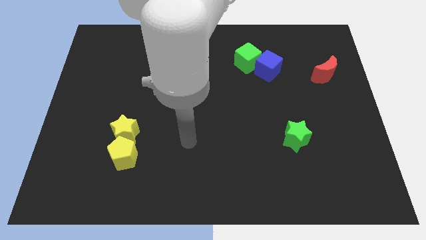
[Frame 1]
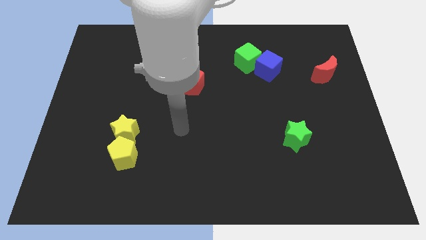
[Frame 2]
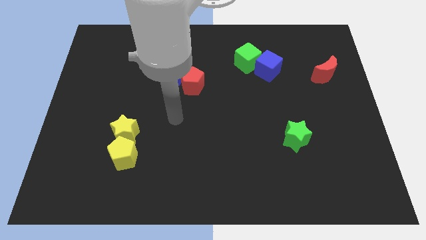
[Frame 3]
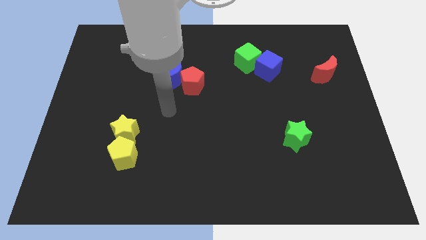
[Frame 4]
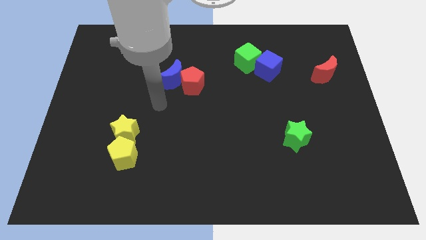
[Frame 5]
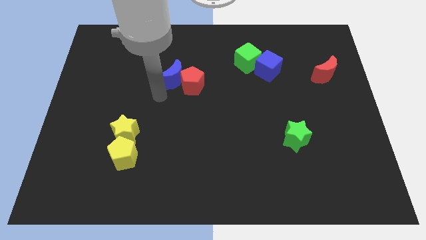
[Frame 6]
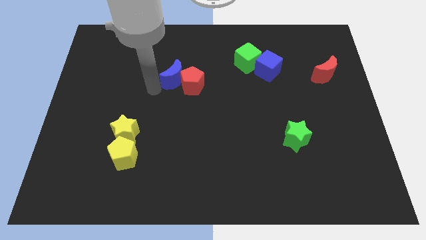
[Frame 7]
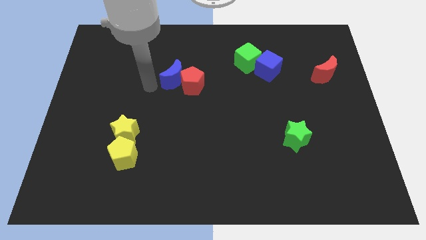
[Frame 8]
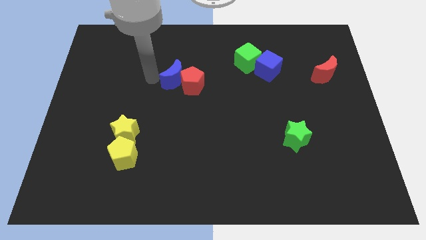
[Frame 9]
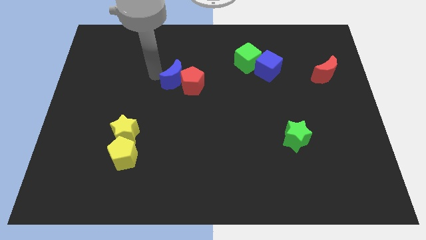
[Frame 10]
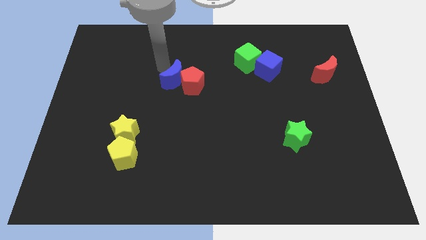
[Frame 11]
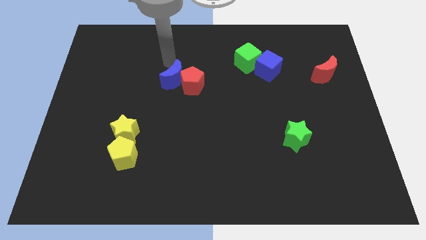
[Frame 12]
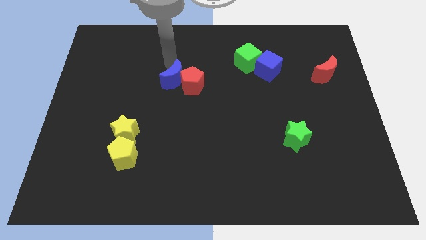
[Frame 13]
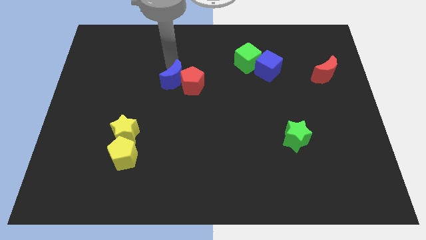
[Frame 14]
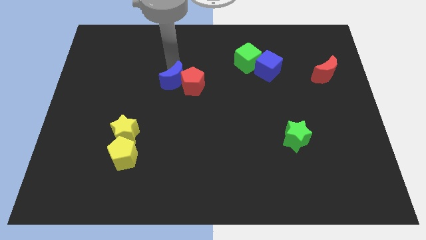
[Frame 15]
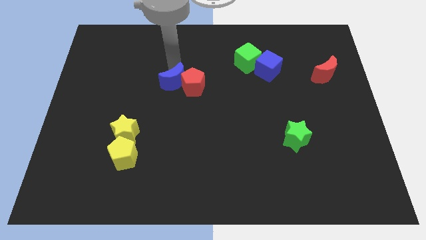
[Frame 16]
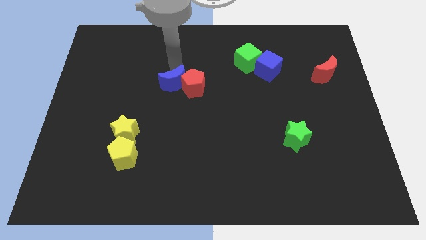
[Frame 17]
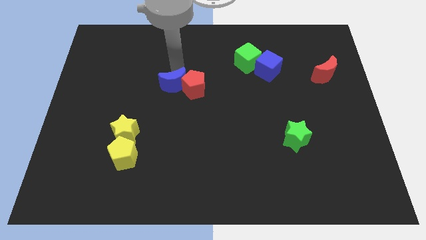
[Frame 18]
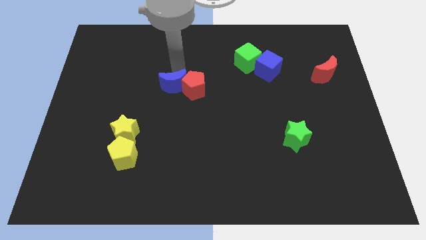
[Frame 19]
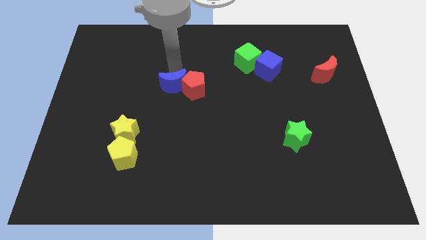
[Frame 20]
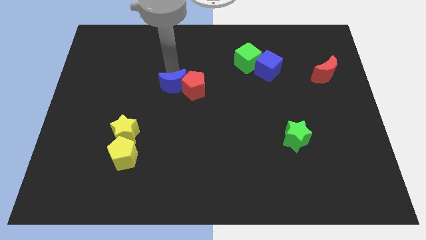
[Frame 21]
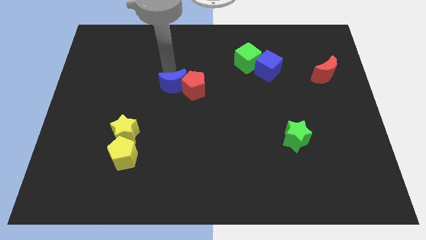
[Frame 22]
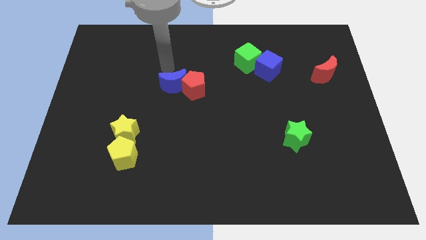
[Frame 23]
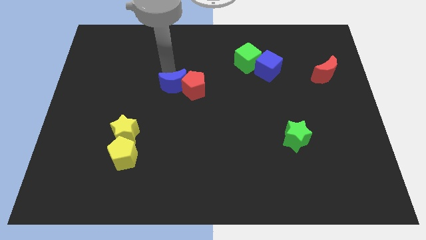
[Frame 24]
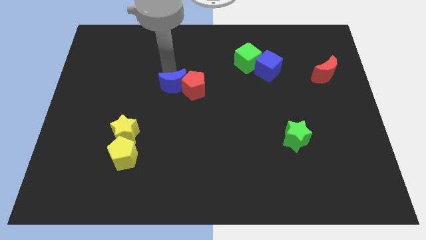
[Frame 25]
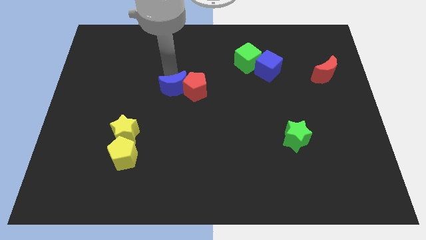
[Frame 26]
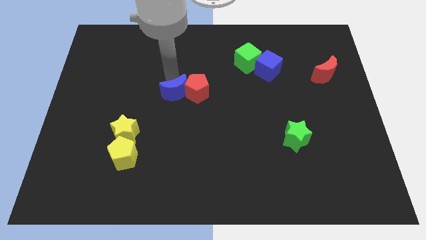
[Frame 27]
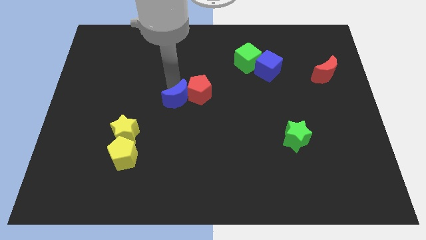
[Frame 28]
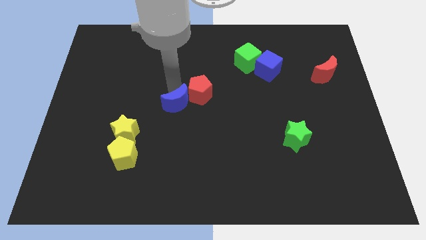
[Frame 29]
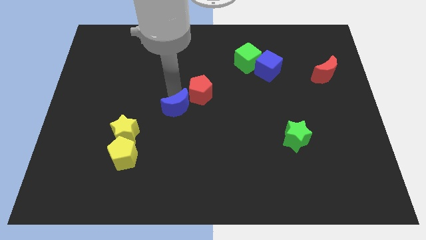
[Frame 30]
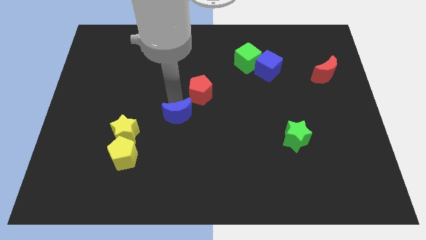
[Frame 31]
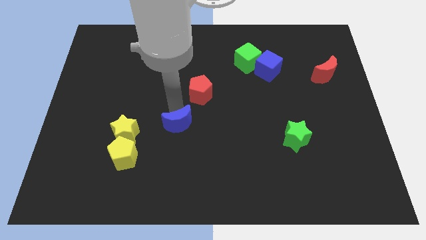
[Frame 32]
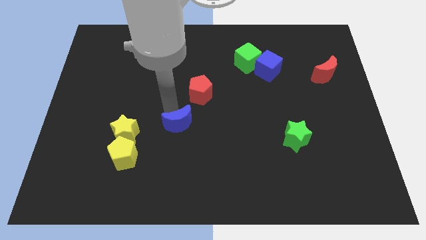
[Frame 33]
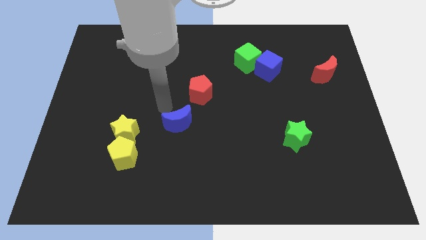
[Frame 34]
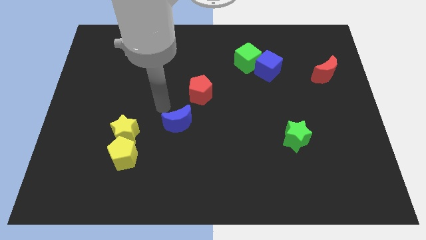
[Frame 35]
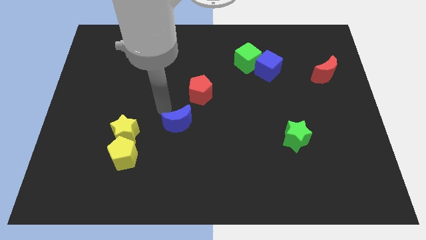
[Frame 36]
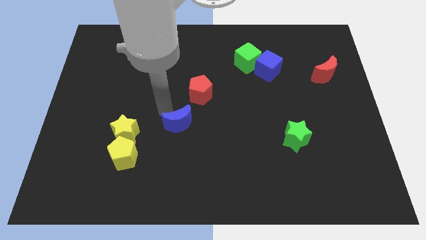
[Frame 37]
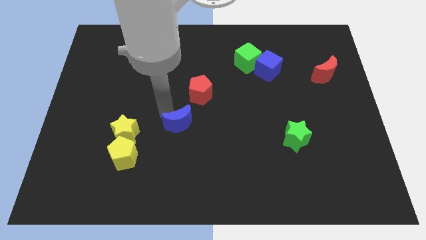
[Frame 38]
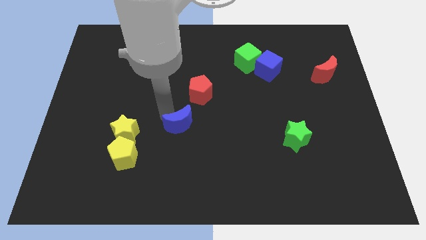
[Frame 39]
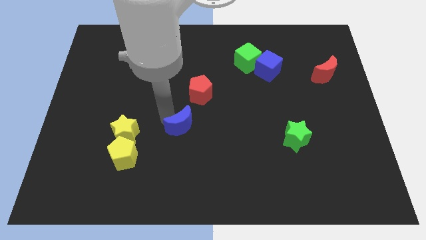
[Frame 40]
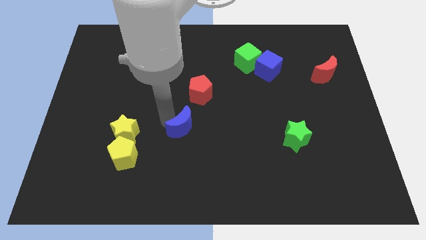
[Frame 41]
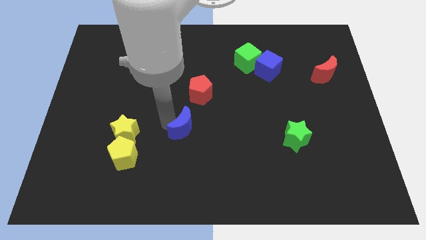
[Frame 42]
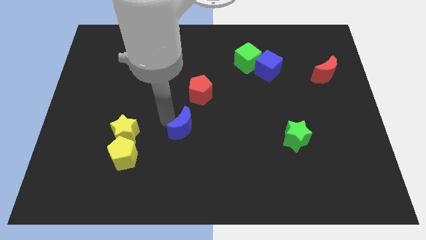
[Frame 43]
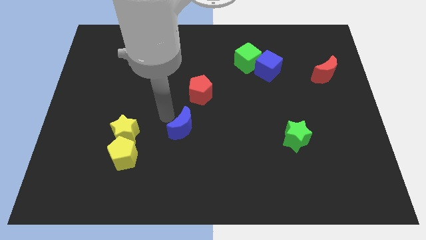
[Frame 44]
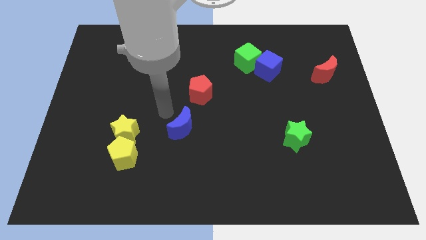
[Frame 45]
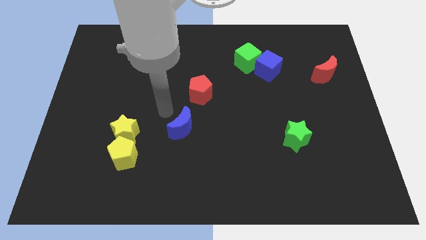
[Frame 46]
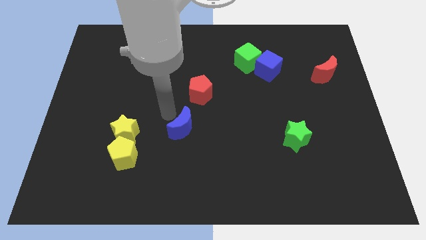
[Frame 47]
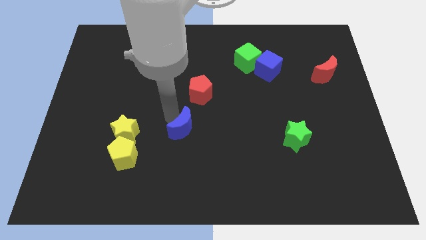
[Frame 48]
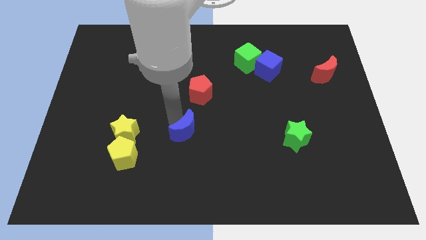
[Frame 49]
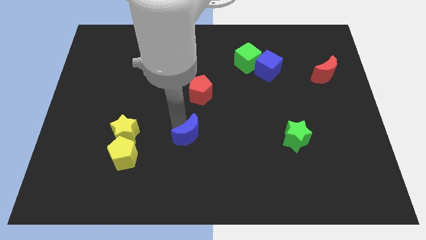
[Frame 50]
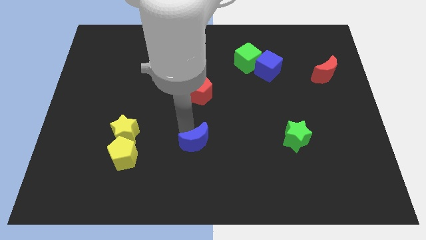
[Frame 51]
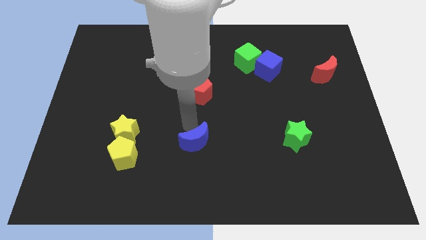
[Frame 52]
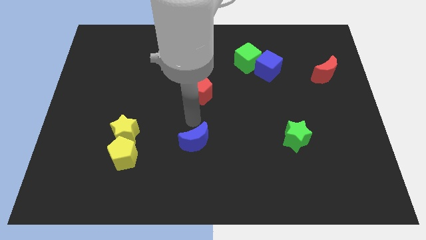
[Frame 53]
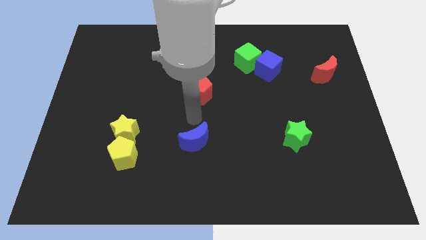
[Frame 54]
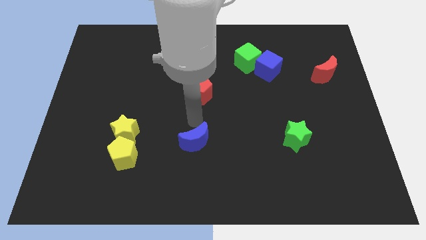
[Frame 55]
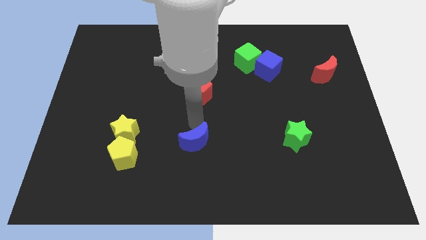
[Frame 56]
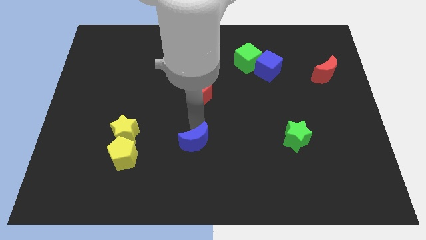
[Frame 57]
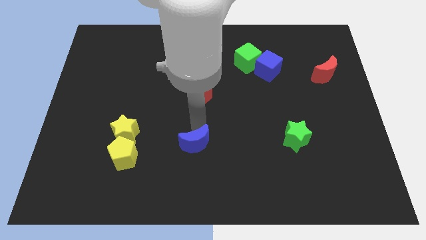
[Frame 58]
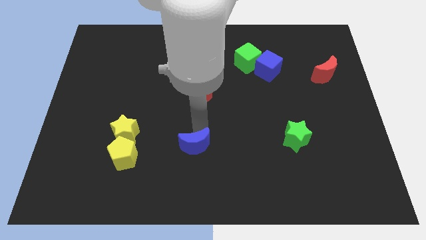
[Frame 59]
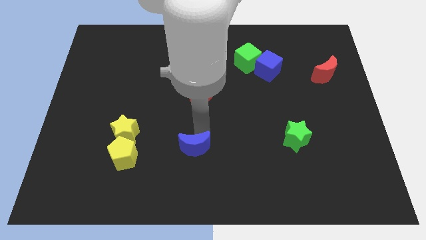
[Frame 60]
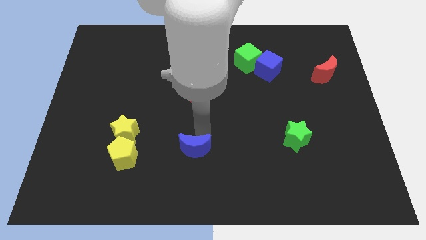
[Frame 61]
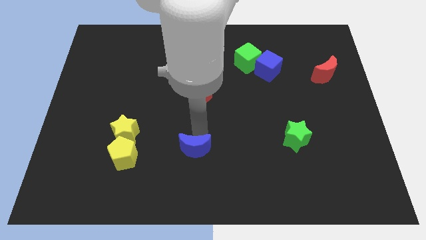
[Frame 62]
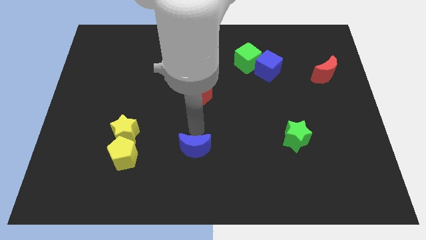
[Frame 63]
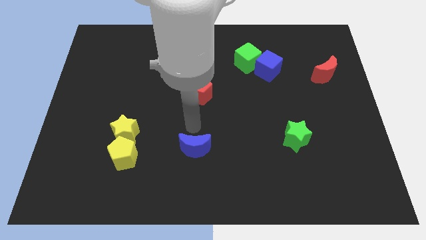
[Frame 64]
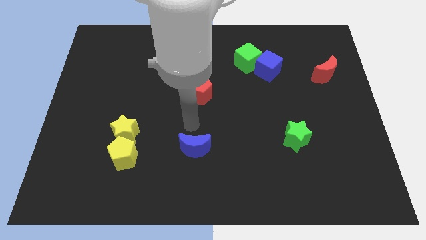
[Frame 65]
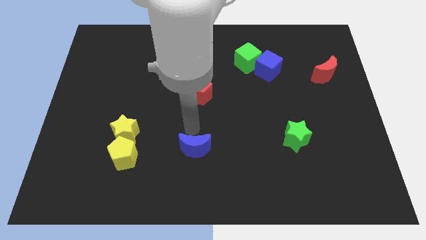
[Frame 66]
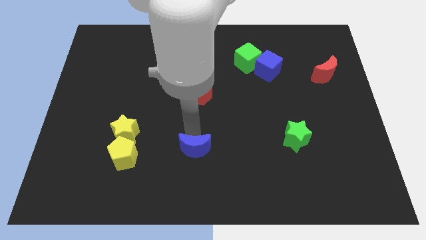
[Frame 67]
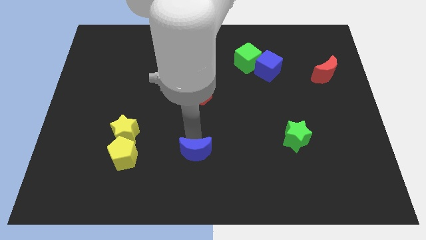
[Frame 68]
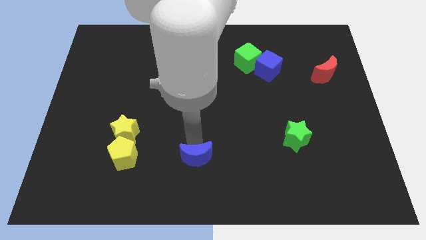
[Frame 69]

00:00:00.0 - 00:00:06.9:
slide the blue moon to the bottom side
